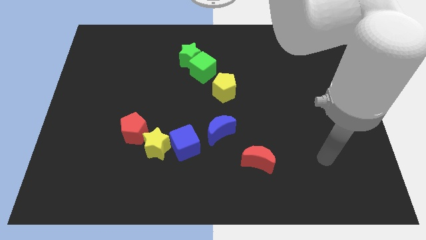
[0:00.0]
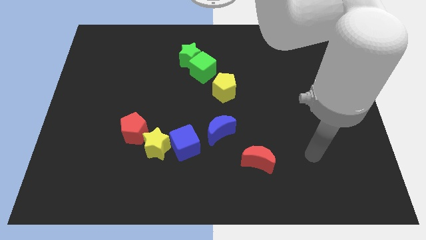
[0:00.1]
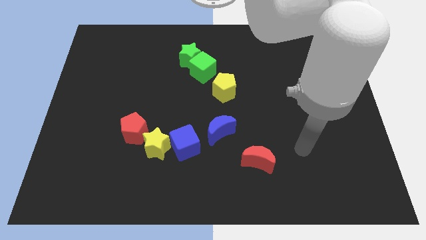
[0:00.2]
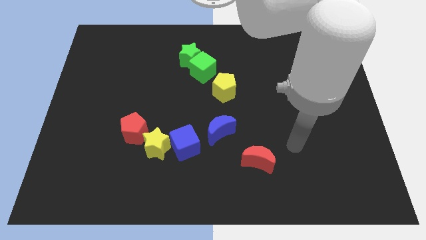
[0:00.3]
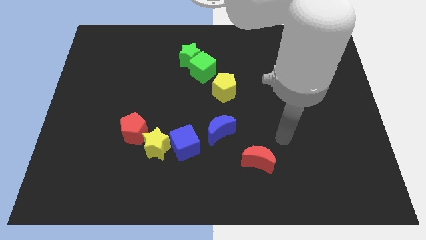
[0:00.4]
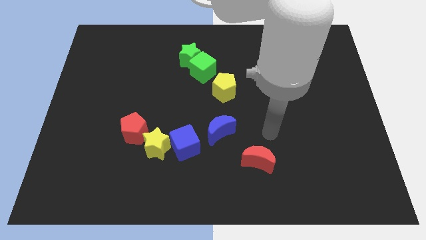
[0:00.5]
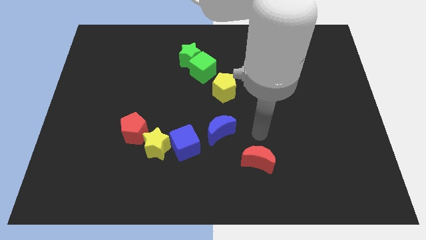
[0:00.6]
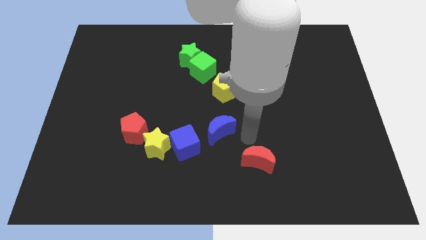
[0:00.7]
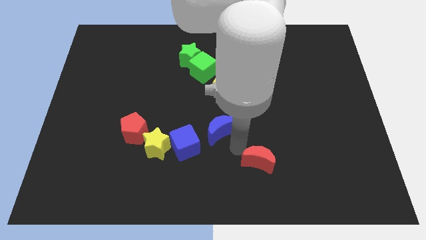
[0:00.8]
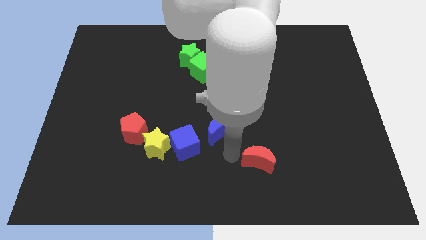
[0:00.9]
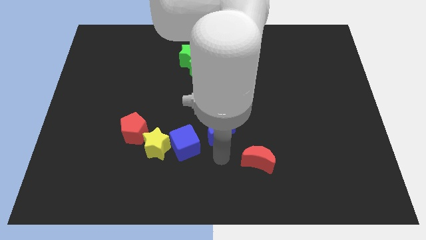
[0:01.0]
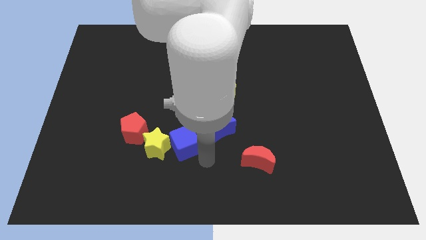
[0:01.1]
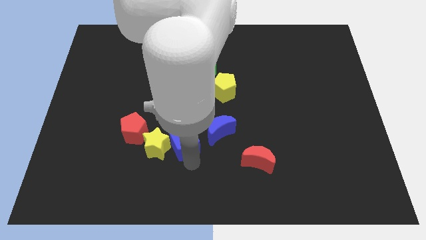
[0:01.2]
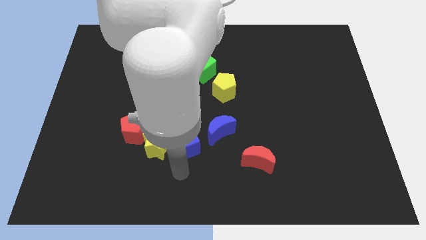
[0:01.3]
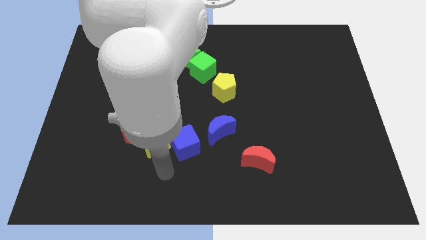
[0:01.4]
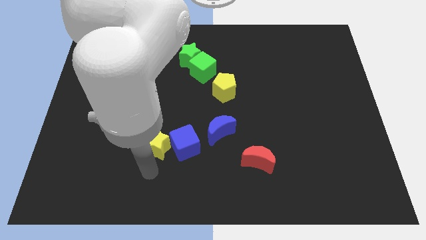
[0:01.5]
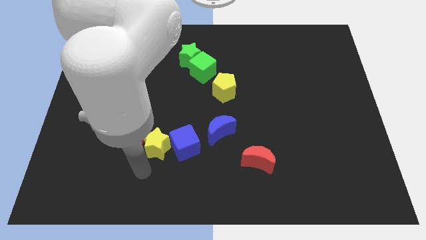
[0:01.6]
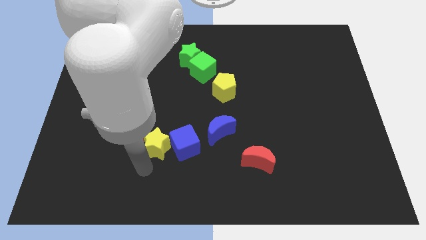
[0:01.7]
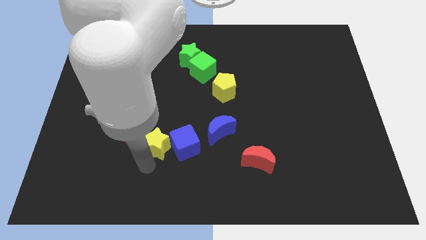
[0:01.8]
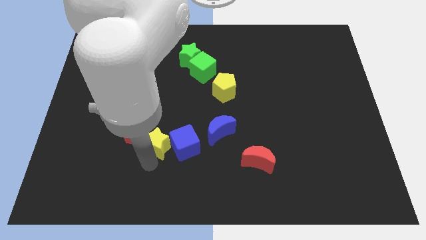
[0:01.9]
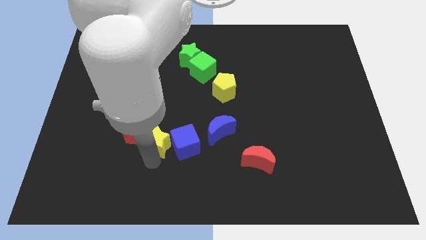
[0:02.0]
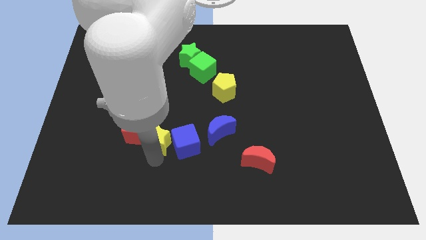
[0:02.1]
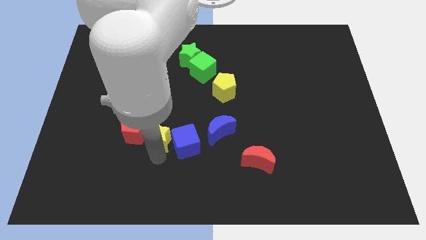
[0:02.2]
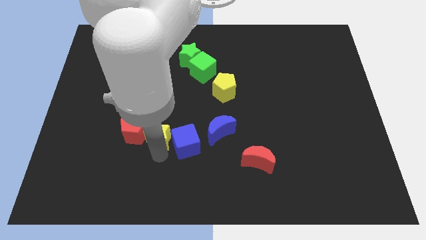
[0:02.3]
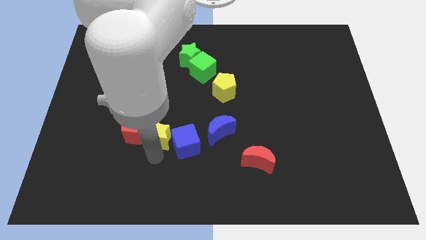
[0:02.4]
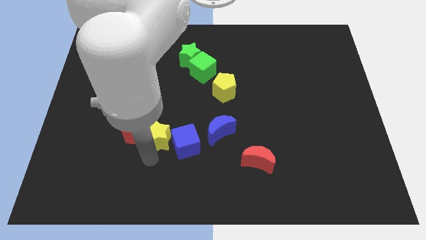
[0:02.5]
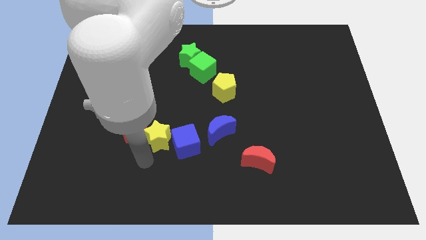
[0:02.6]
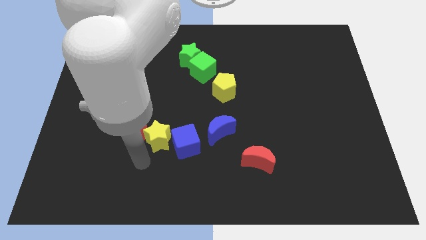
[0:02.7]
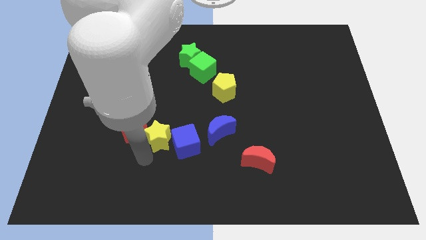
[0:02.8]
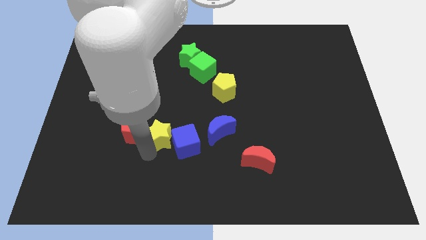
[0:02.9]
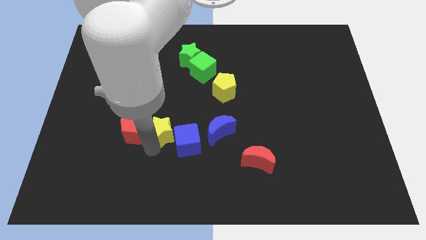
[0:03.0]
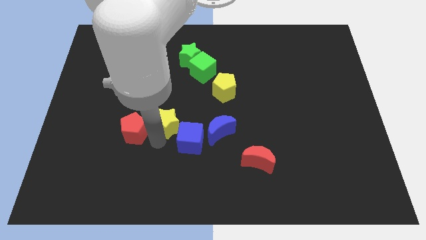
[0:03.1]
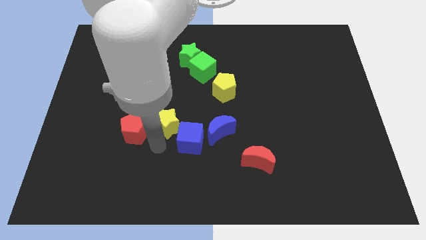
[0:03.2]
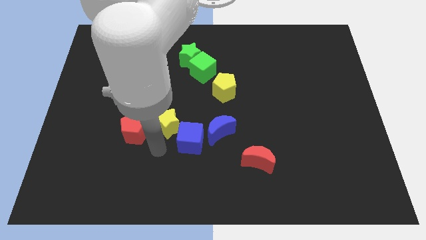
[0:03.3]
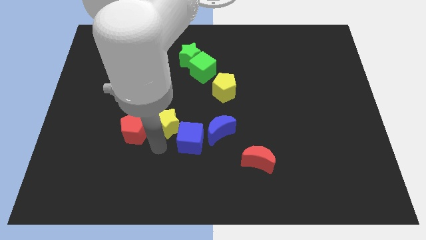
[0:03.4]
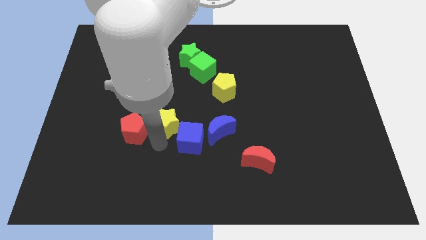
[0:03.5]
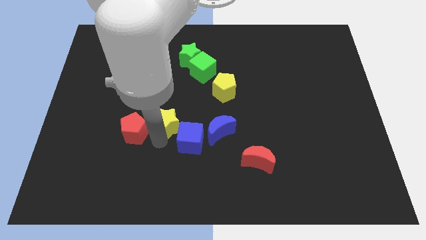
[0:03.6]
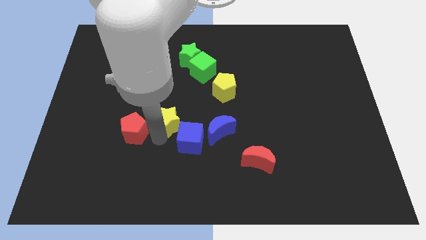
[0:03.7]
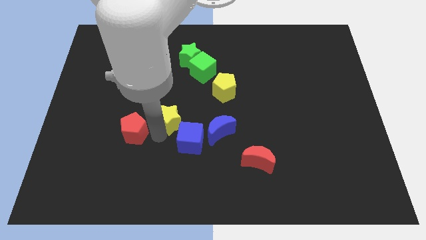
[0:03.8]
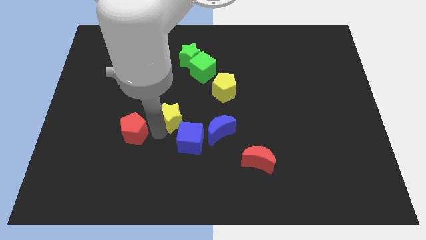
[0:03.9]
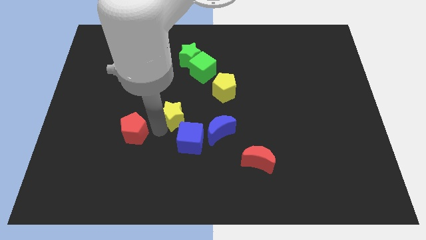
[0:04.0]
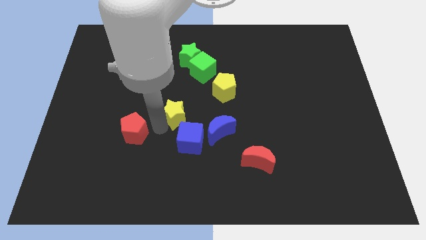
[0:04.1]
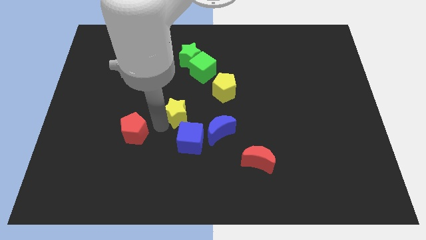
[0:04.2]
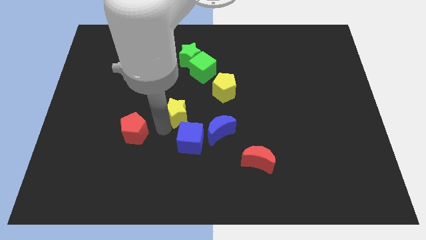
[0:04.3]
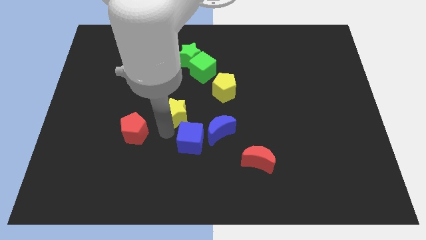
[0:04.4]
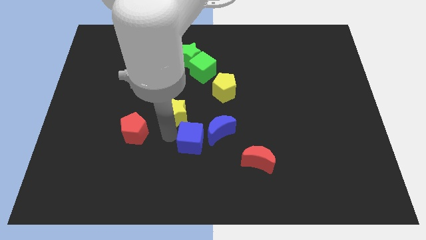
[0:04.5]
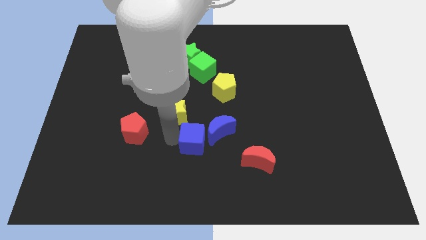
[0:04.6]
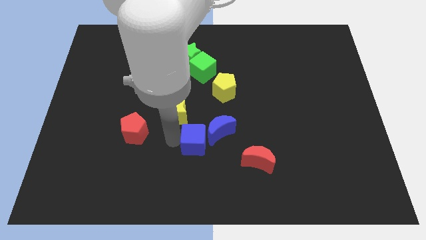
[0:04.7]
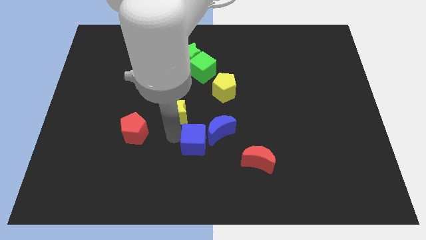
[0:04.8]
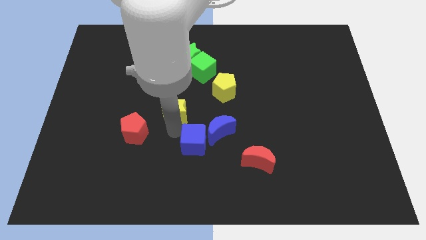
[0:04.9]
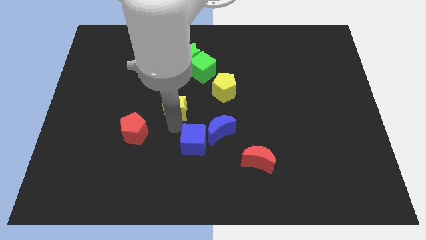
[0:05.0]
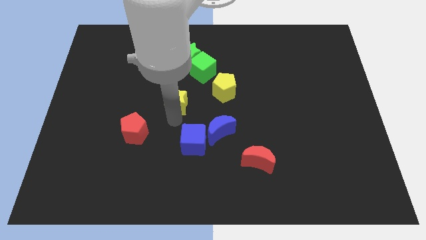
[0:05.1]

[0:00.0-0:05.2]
slide the yellow star to the bottom side of the green star

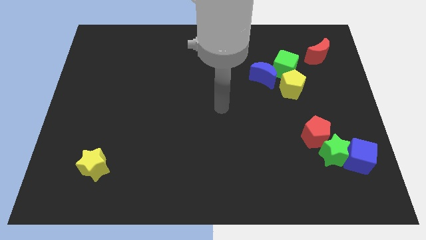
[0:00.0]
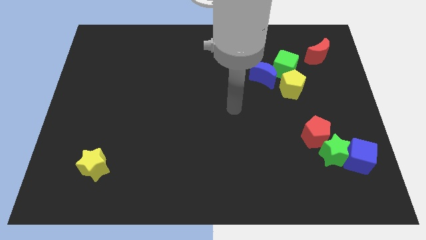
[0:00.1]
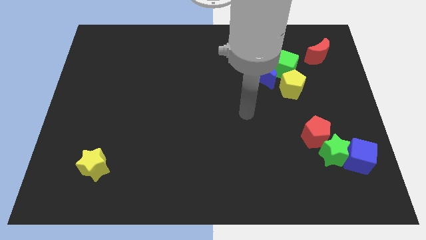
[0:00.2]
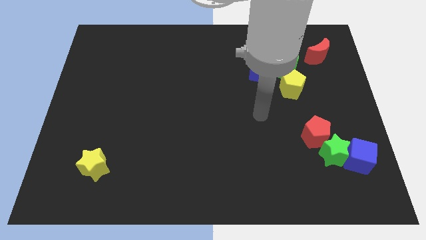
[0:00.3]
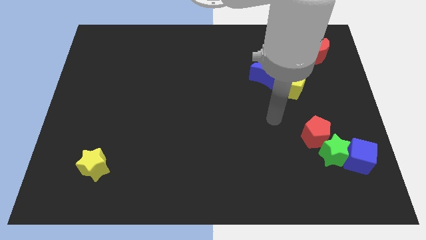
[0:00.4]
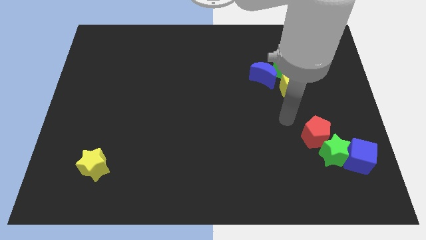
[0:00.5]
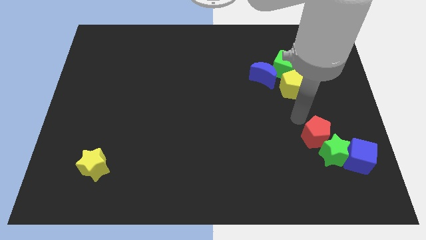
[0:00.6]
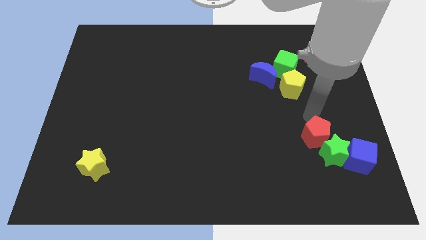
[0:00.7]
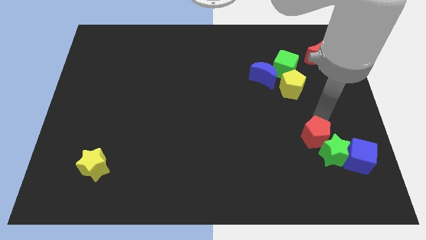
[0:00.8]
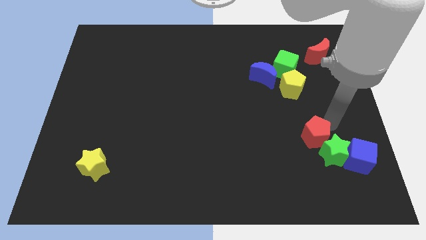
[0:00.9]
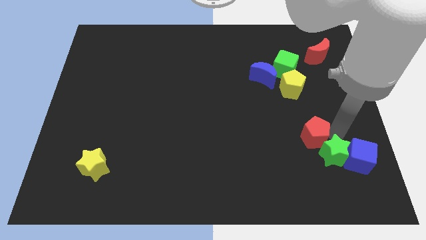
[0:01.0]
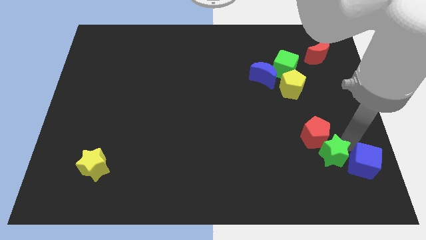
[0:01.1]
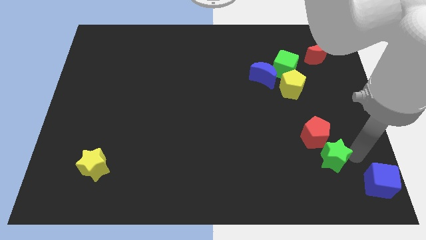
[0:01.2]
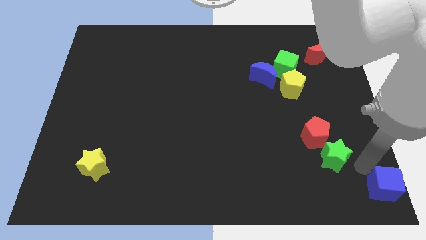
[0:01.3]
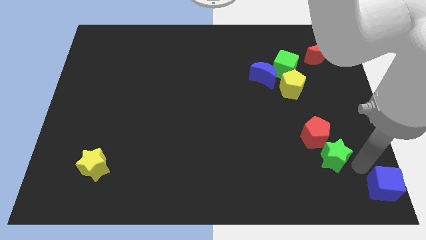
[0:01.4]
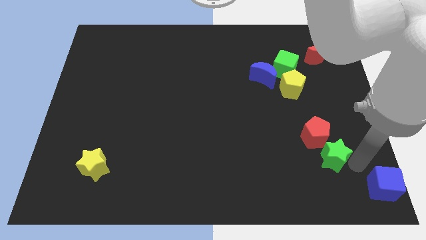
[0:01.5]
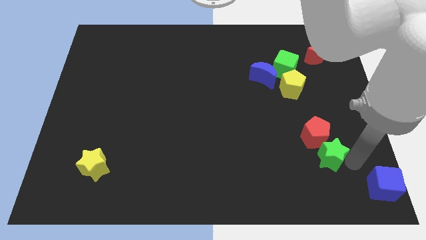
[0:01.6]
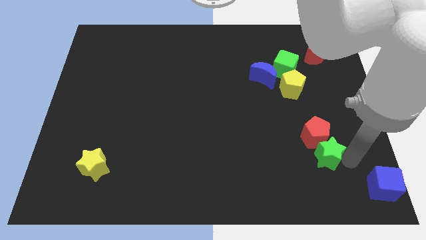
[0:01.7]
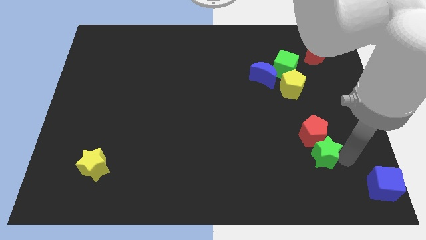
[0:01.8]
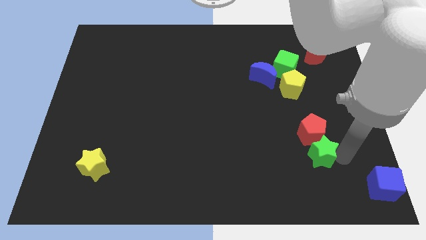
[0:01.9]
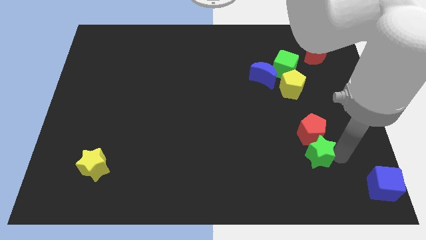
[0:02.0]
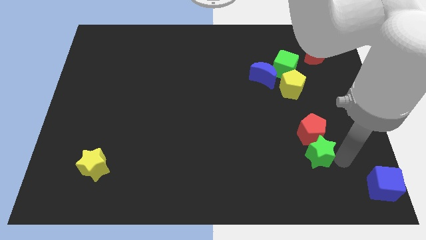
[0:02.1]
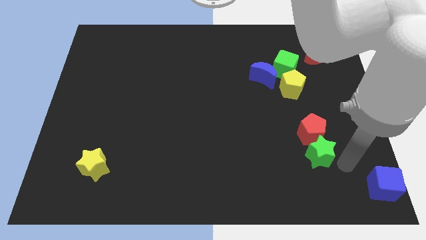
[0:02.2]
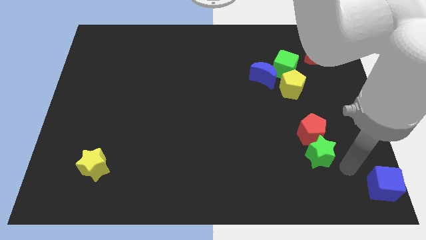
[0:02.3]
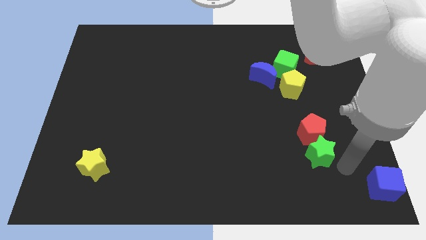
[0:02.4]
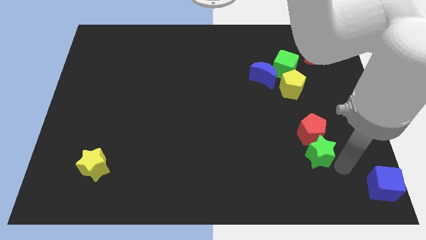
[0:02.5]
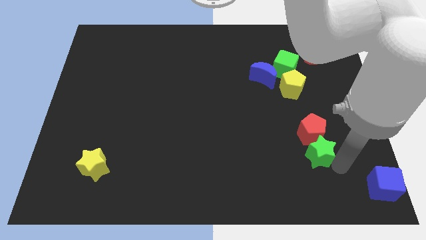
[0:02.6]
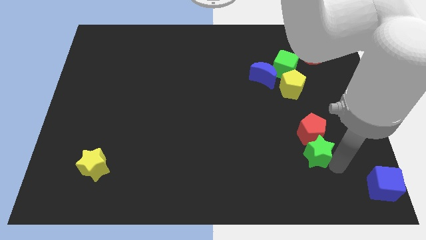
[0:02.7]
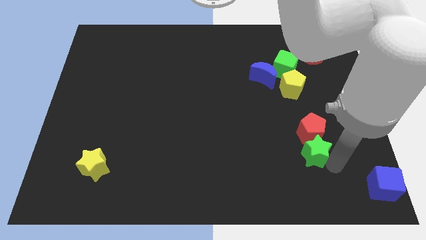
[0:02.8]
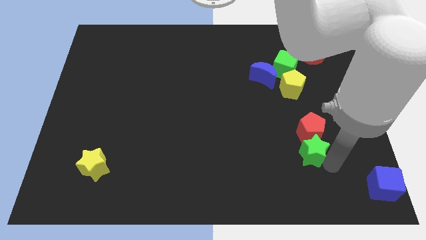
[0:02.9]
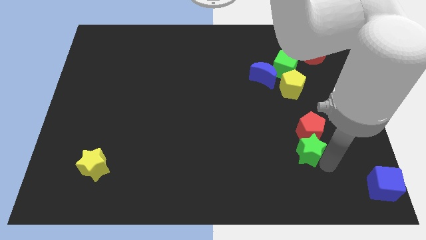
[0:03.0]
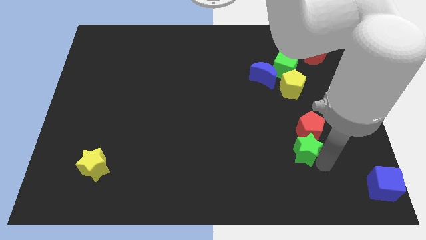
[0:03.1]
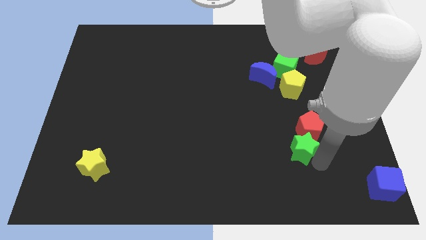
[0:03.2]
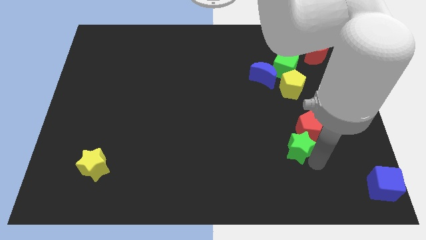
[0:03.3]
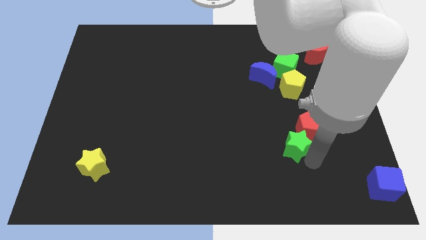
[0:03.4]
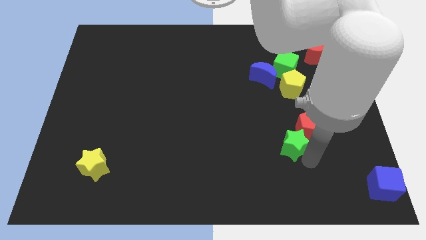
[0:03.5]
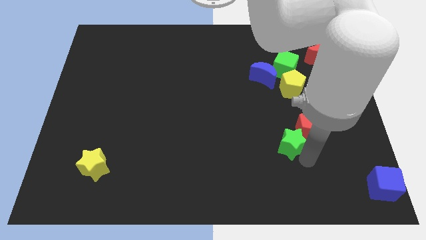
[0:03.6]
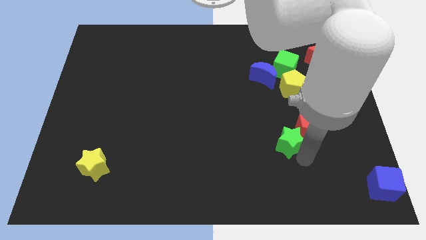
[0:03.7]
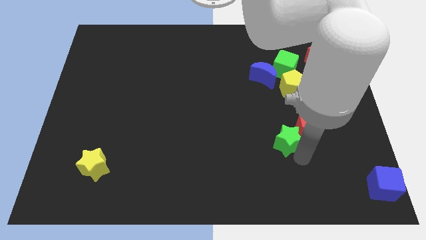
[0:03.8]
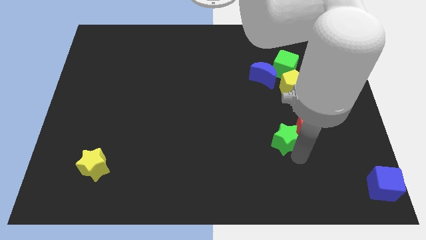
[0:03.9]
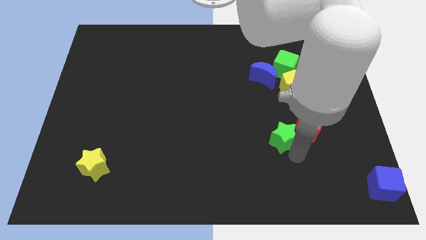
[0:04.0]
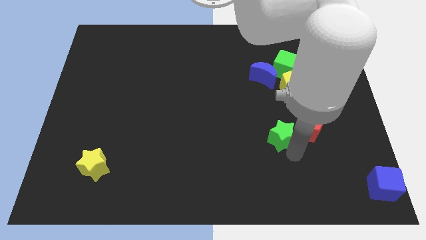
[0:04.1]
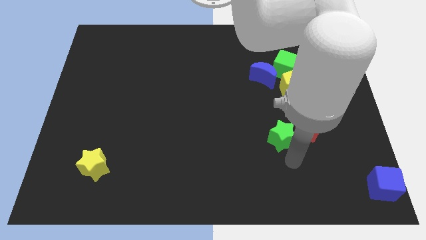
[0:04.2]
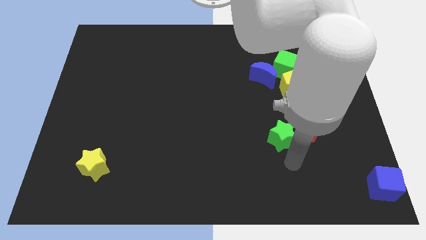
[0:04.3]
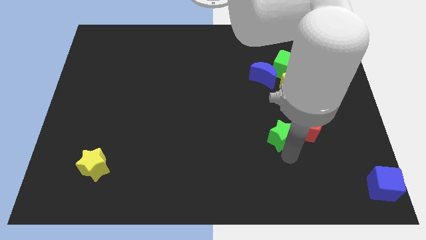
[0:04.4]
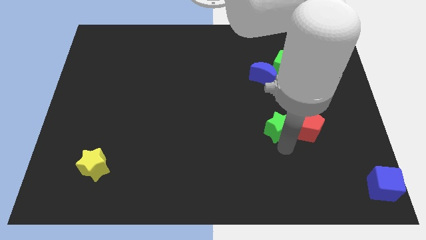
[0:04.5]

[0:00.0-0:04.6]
move the green star to the bottom side of the blue moon
